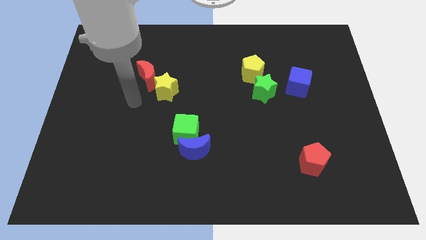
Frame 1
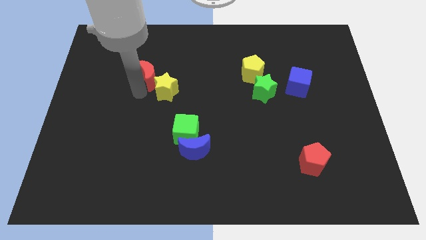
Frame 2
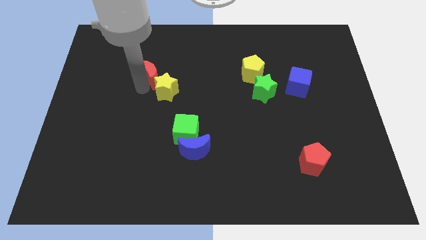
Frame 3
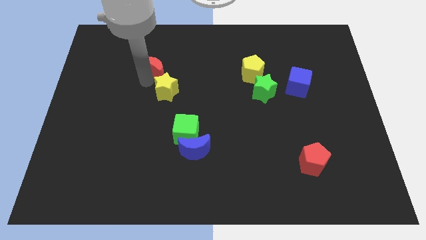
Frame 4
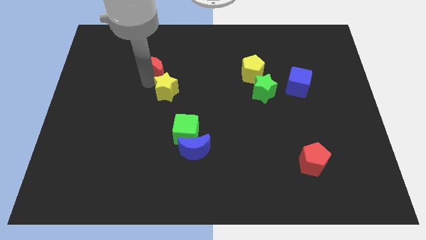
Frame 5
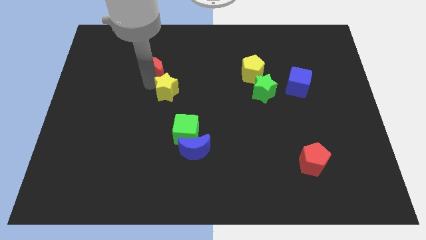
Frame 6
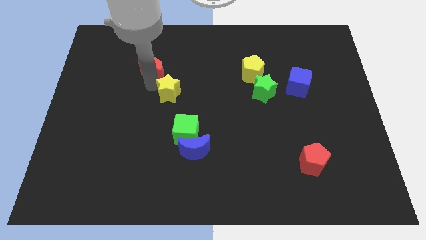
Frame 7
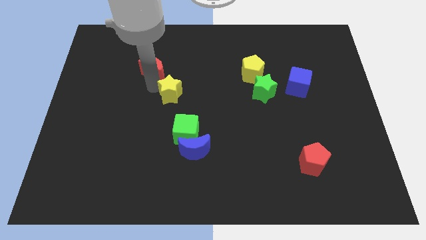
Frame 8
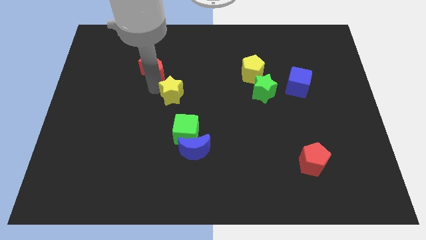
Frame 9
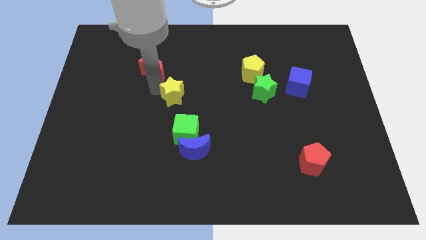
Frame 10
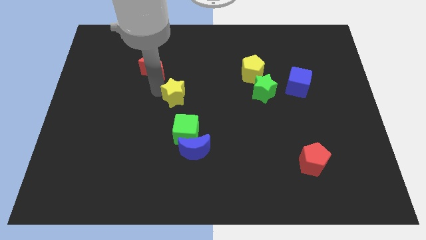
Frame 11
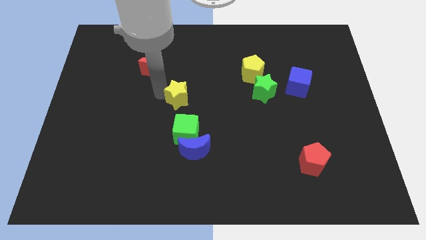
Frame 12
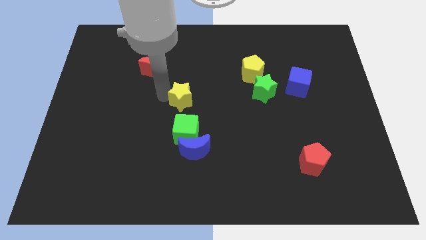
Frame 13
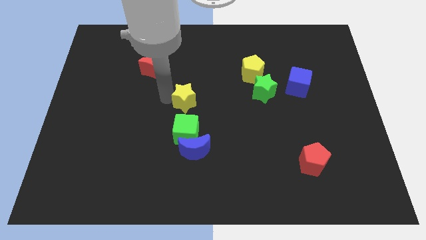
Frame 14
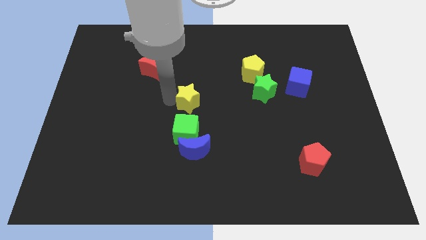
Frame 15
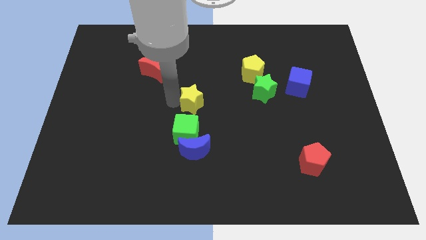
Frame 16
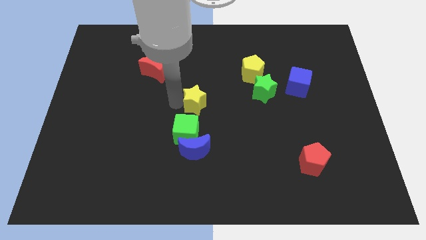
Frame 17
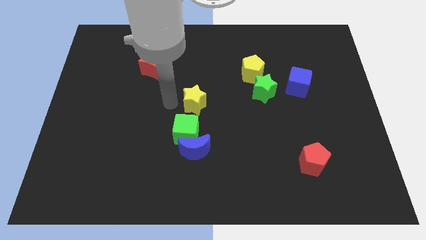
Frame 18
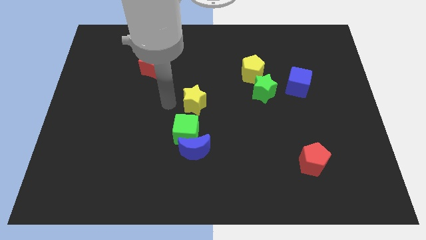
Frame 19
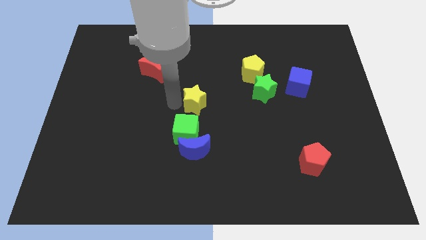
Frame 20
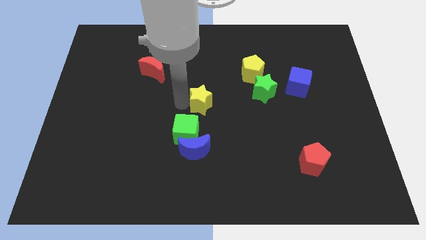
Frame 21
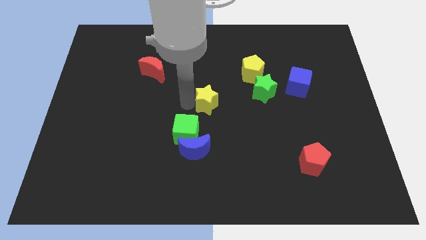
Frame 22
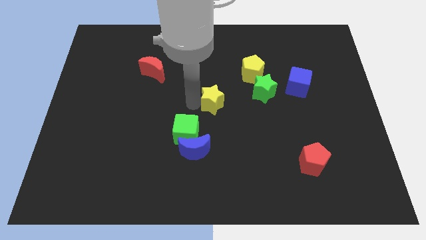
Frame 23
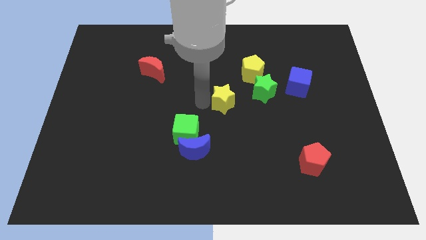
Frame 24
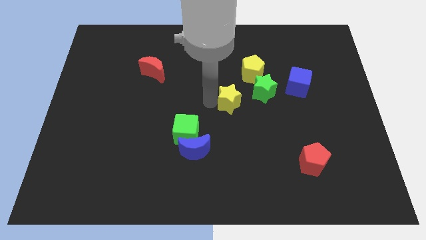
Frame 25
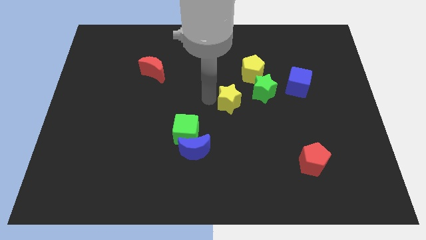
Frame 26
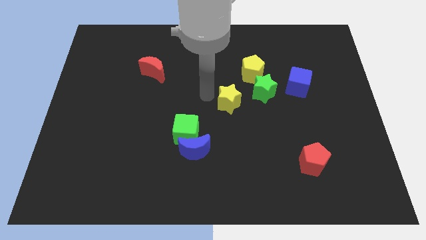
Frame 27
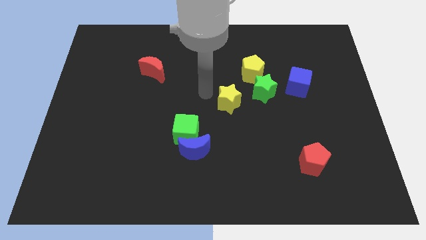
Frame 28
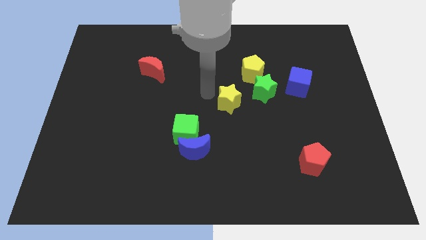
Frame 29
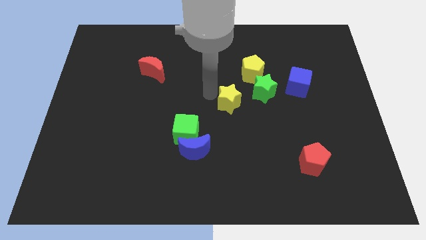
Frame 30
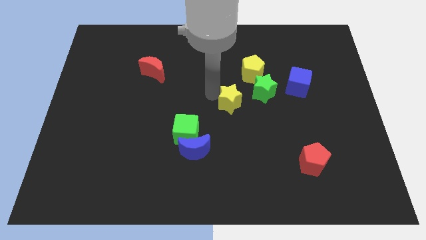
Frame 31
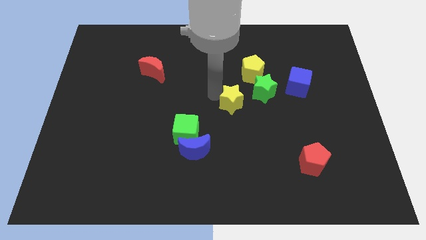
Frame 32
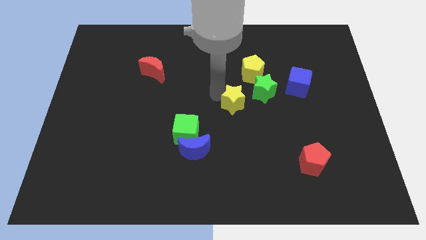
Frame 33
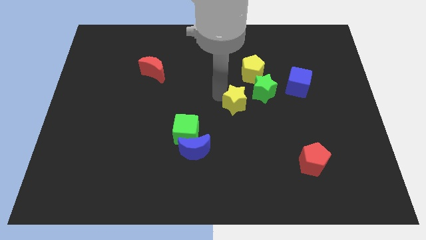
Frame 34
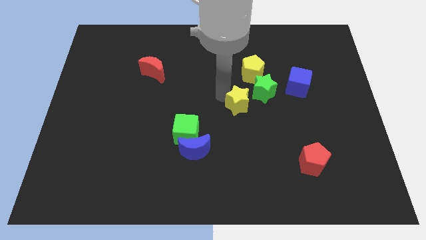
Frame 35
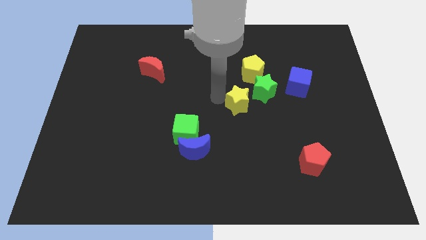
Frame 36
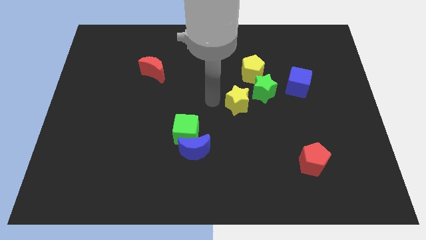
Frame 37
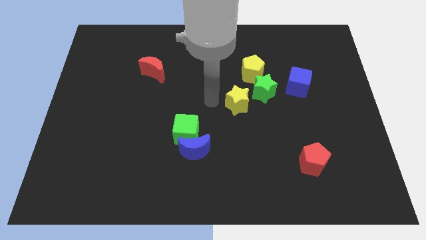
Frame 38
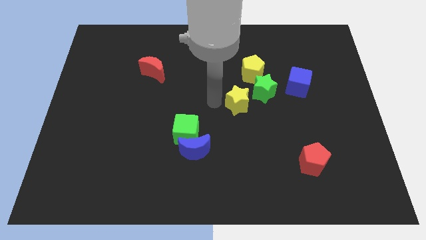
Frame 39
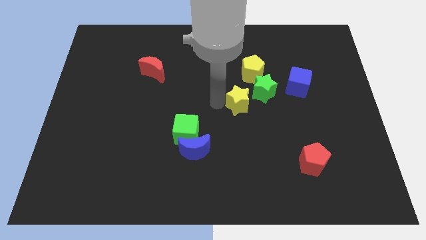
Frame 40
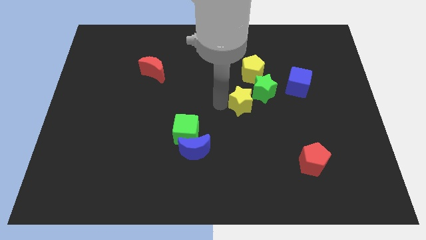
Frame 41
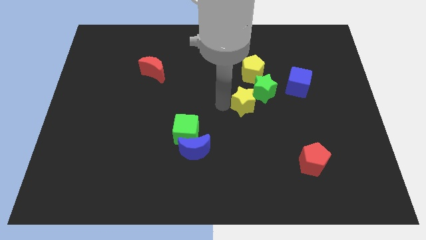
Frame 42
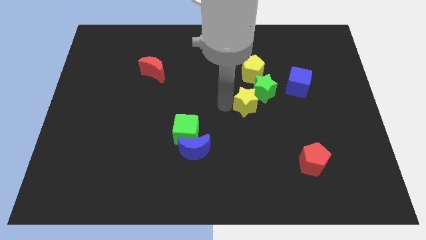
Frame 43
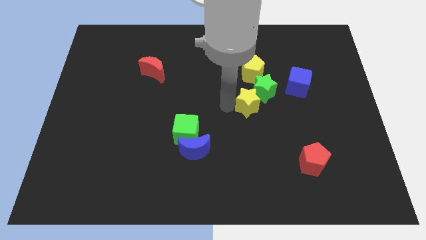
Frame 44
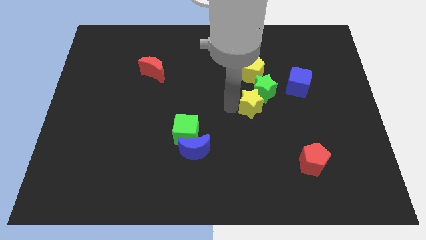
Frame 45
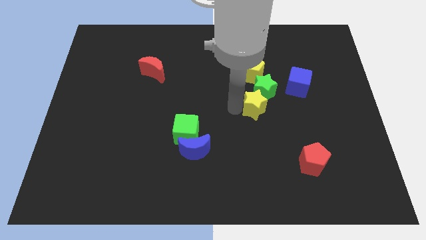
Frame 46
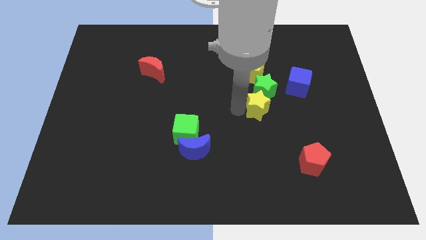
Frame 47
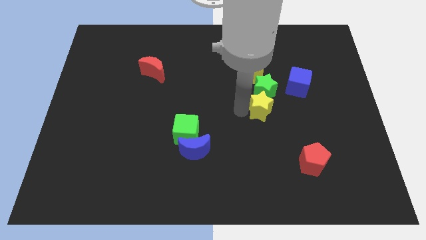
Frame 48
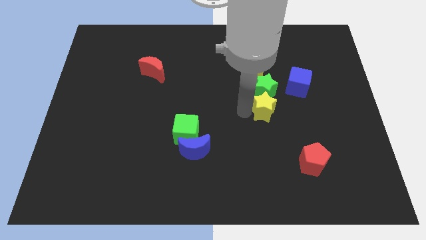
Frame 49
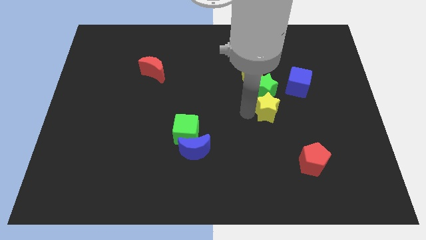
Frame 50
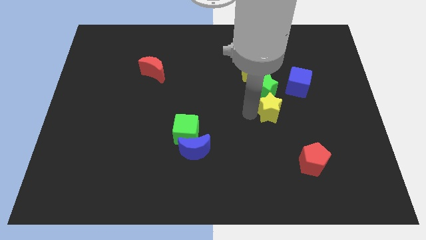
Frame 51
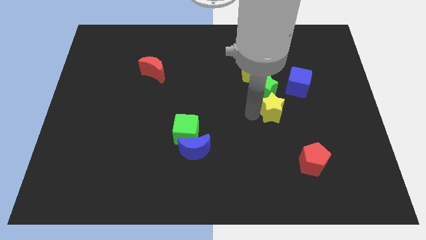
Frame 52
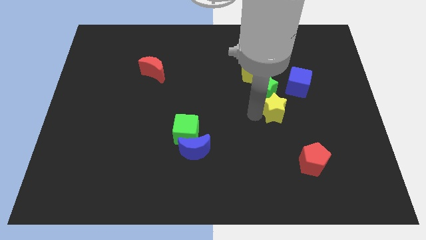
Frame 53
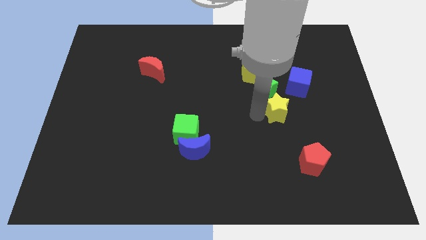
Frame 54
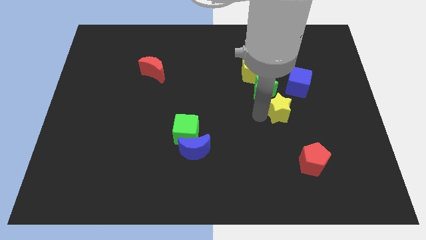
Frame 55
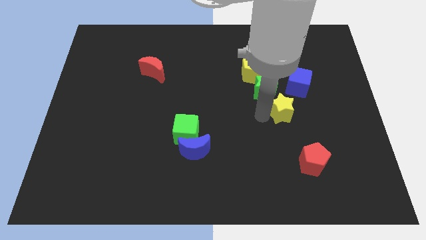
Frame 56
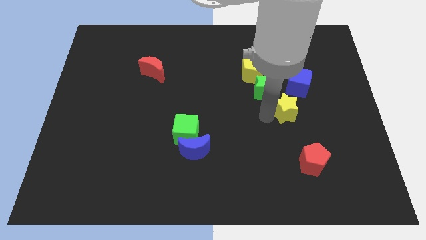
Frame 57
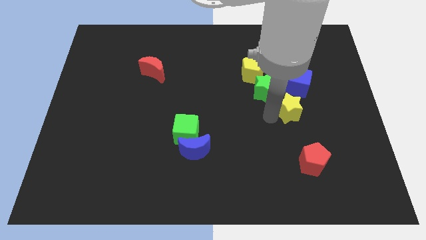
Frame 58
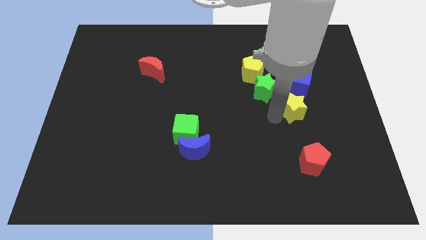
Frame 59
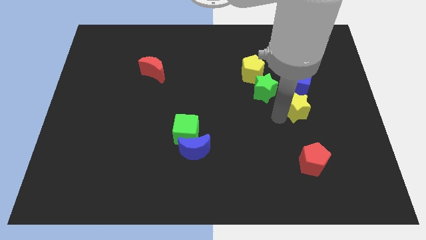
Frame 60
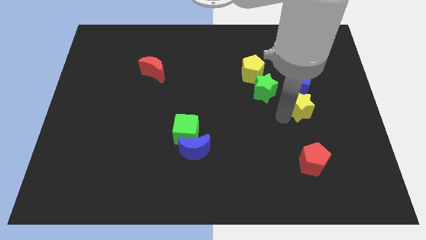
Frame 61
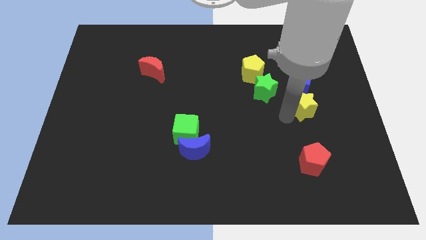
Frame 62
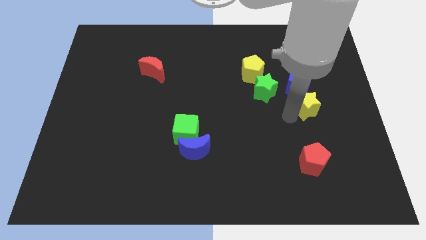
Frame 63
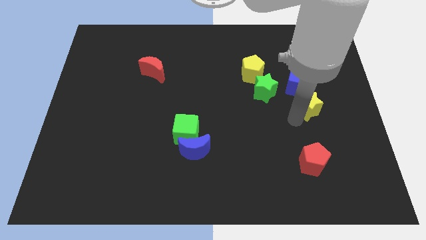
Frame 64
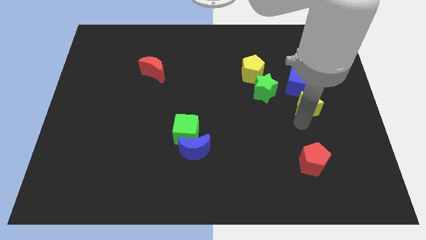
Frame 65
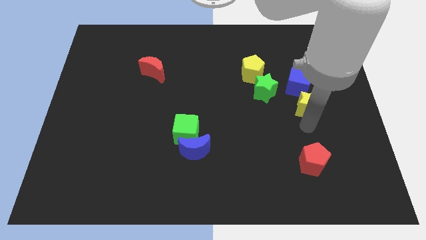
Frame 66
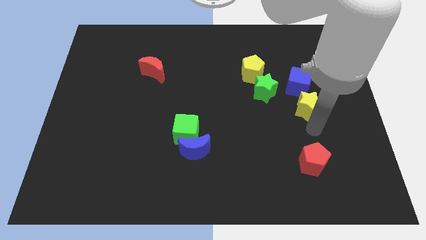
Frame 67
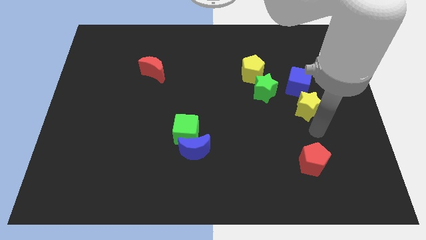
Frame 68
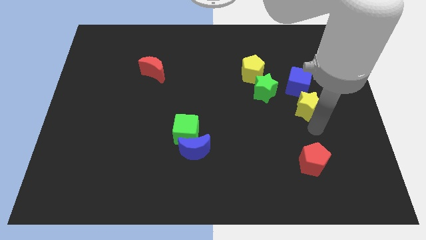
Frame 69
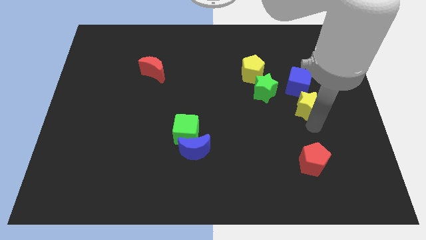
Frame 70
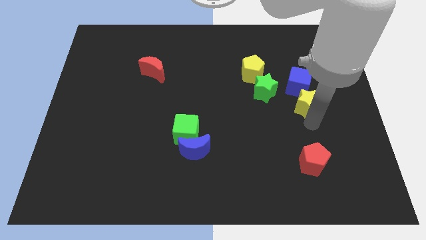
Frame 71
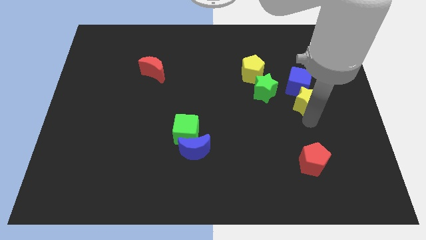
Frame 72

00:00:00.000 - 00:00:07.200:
move the yellow star to the blue cube
